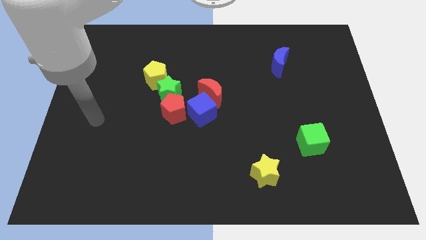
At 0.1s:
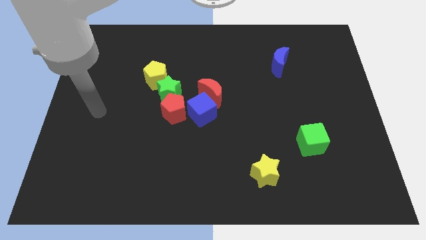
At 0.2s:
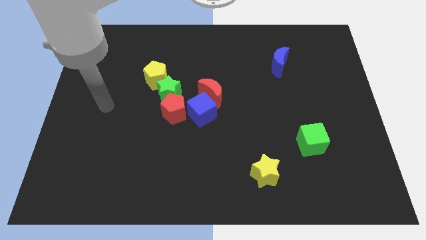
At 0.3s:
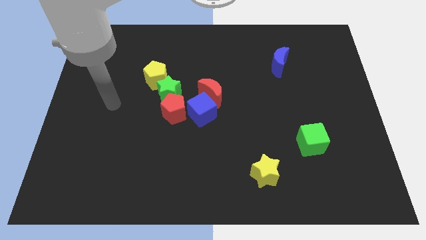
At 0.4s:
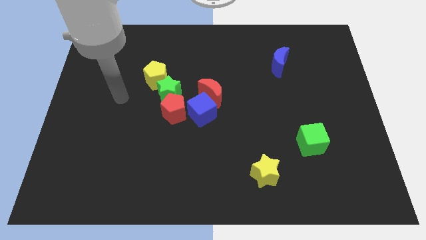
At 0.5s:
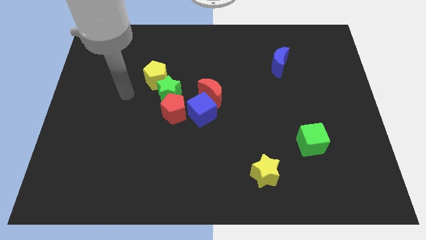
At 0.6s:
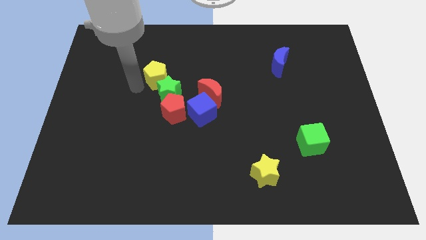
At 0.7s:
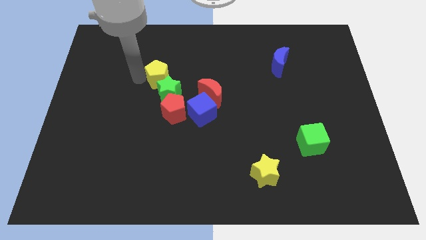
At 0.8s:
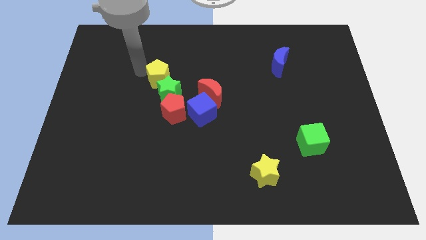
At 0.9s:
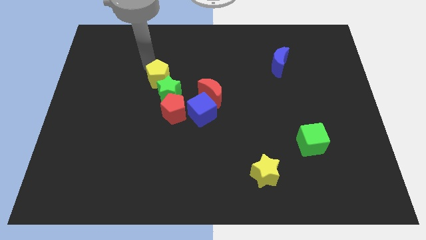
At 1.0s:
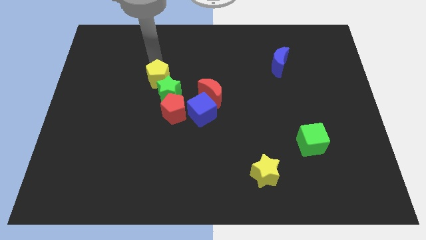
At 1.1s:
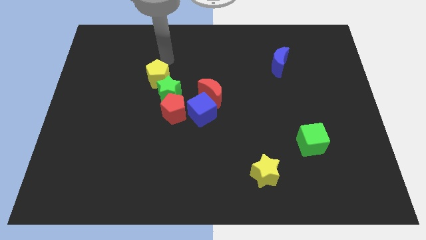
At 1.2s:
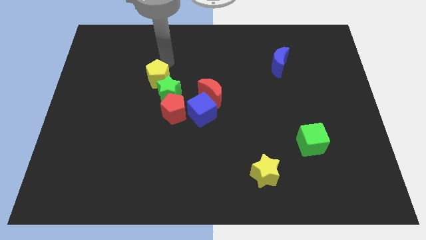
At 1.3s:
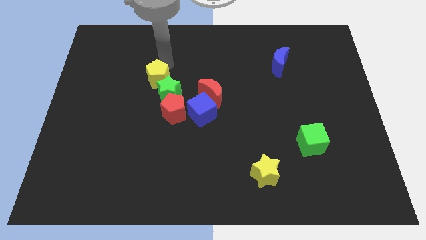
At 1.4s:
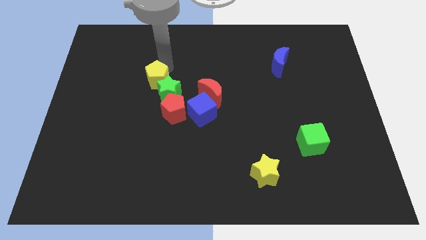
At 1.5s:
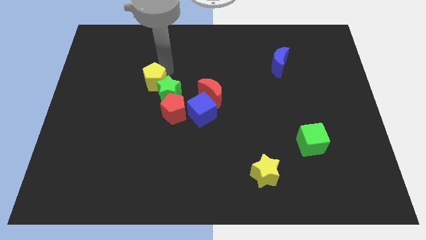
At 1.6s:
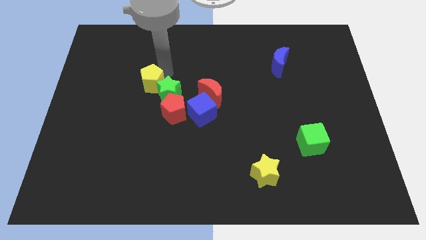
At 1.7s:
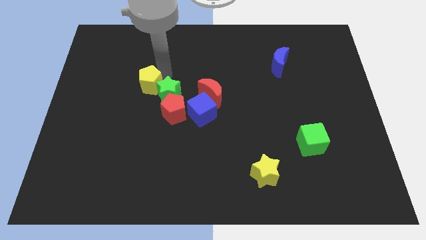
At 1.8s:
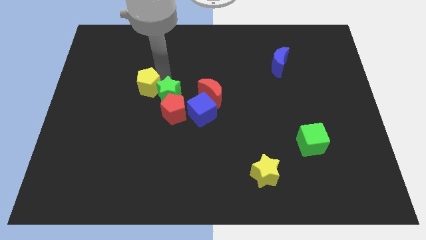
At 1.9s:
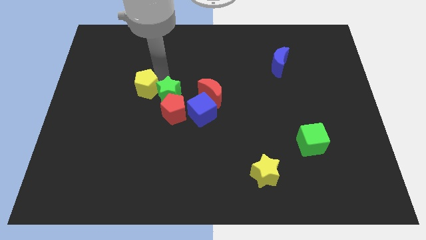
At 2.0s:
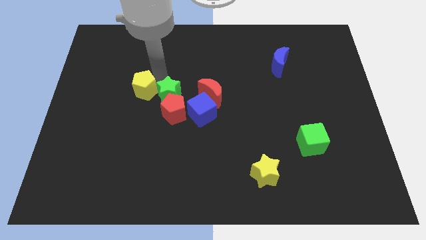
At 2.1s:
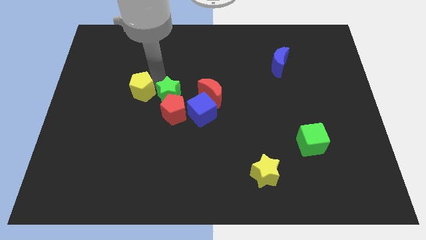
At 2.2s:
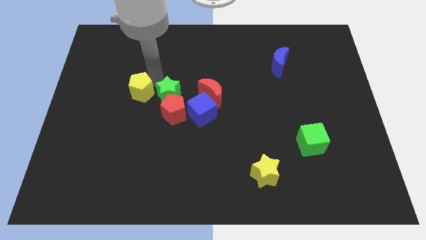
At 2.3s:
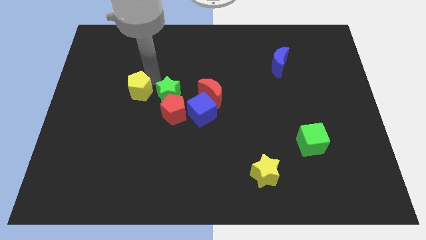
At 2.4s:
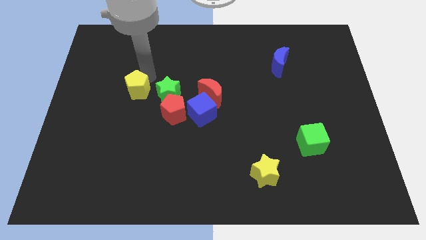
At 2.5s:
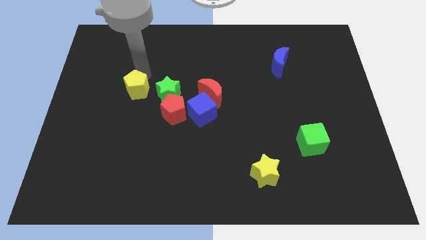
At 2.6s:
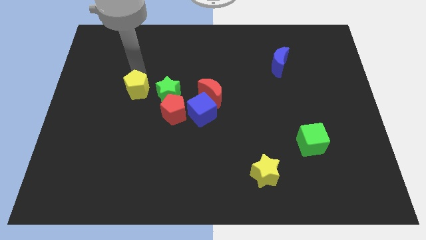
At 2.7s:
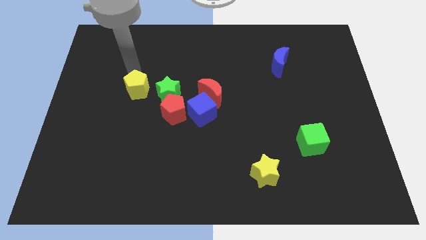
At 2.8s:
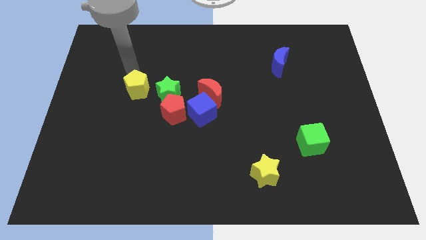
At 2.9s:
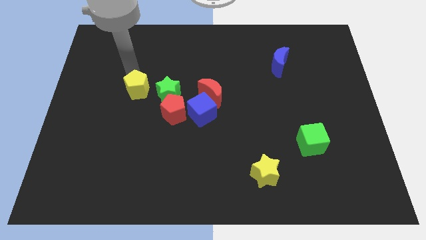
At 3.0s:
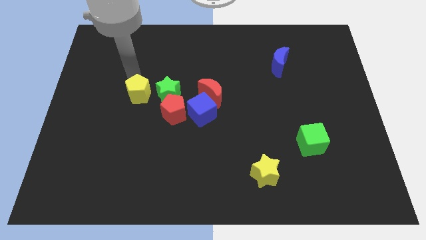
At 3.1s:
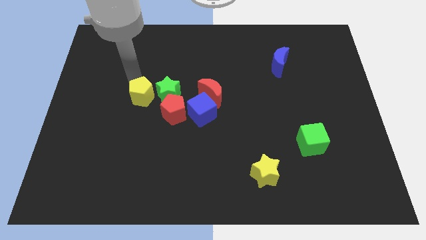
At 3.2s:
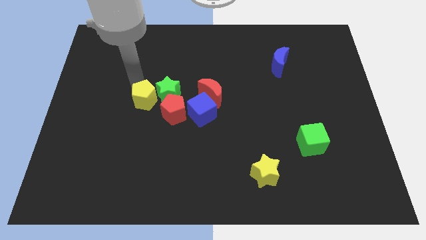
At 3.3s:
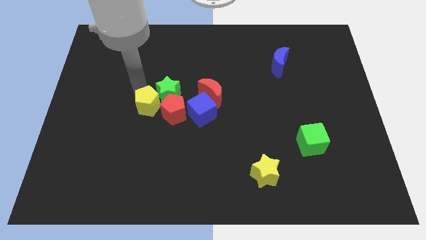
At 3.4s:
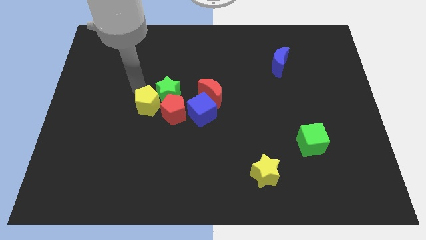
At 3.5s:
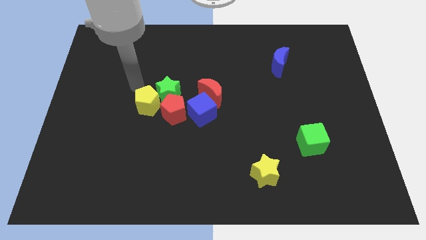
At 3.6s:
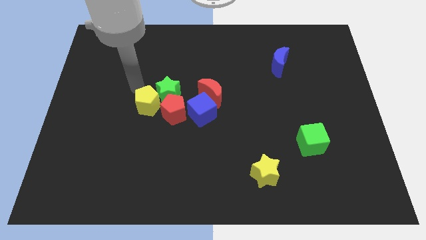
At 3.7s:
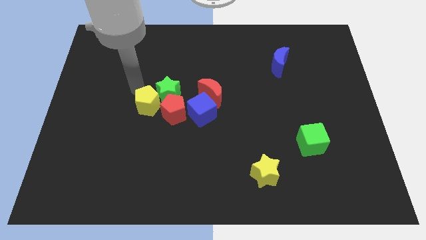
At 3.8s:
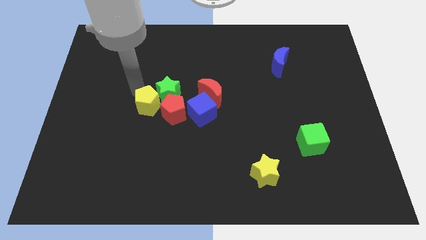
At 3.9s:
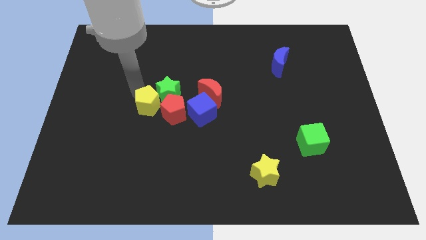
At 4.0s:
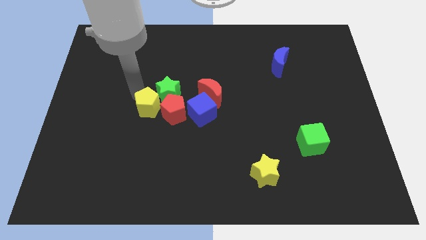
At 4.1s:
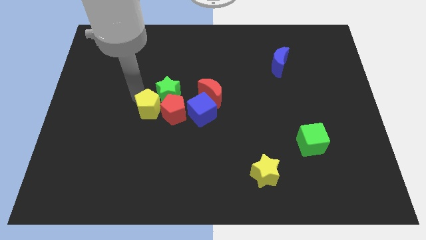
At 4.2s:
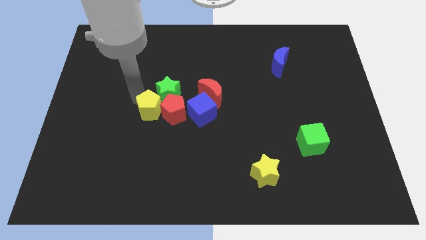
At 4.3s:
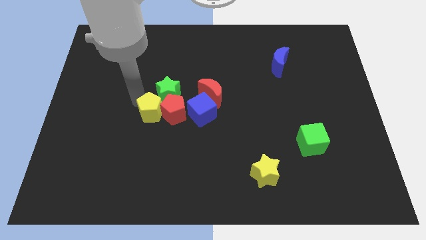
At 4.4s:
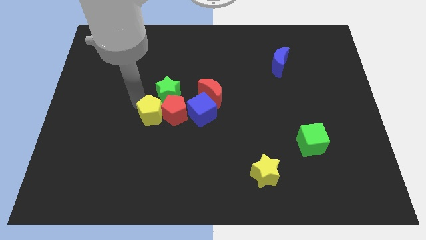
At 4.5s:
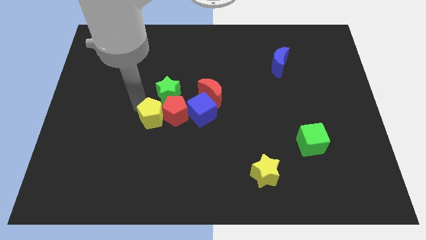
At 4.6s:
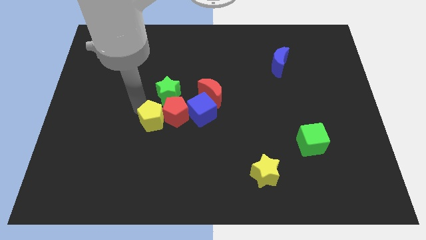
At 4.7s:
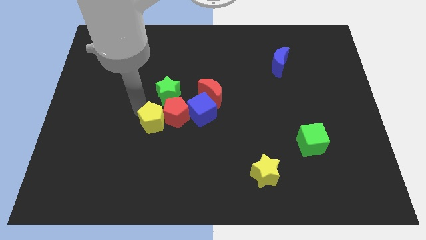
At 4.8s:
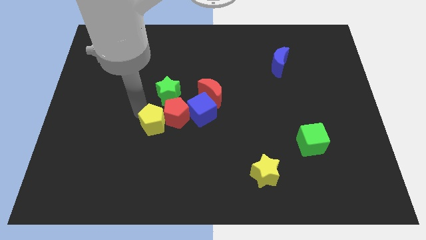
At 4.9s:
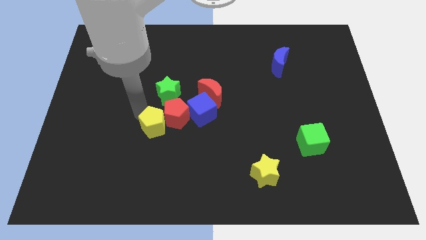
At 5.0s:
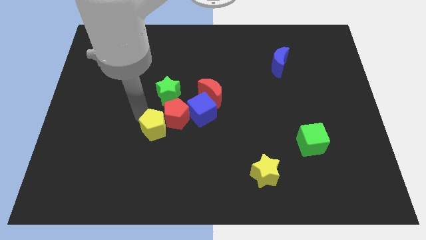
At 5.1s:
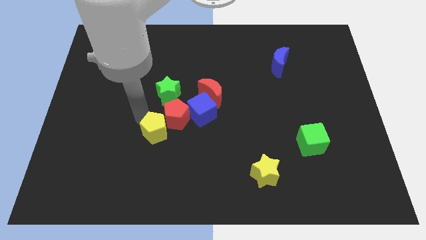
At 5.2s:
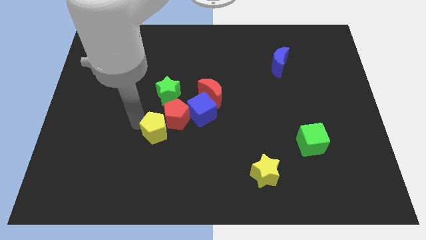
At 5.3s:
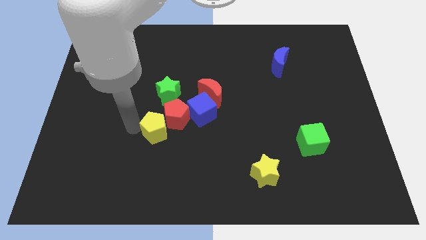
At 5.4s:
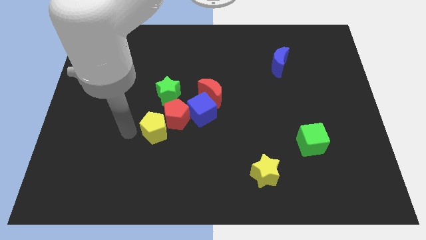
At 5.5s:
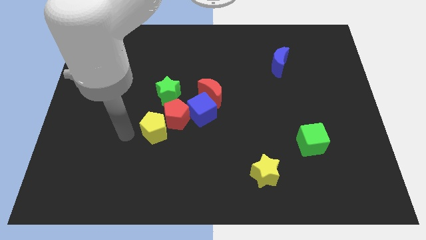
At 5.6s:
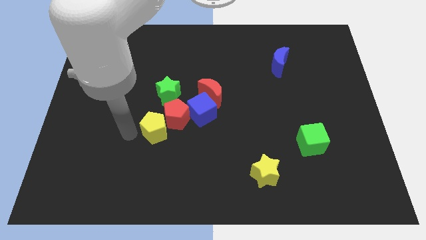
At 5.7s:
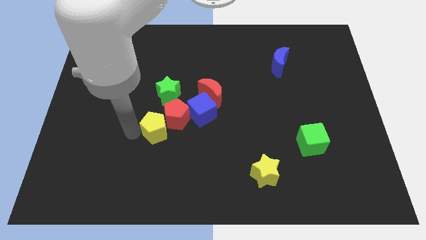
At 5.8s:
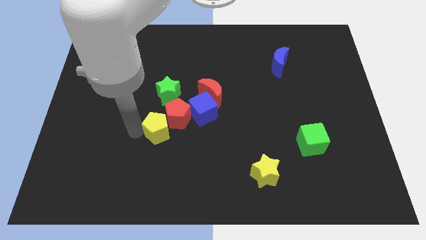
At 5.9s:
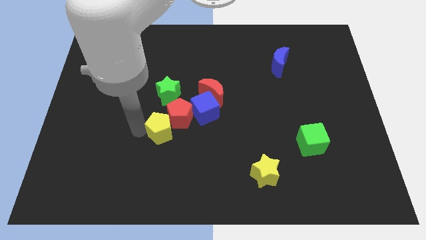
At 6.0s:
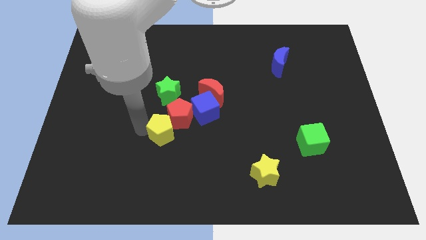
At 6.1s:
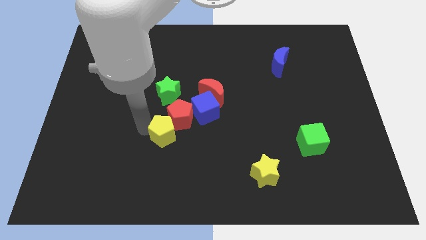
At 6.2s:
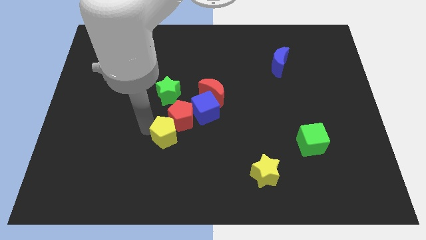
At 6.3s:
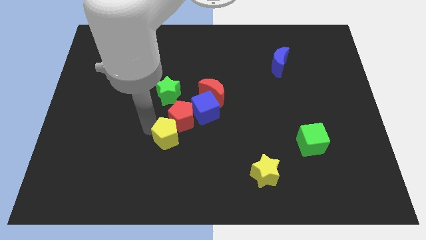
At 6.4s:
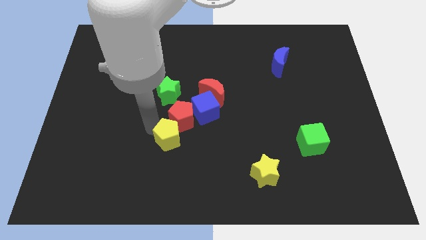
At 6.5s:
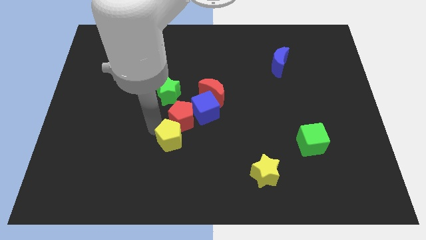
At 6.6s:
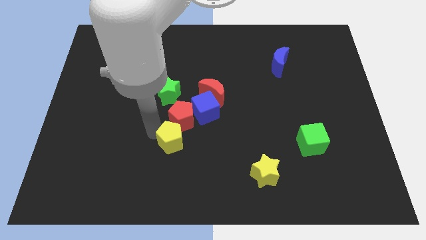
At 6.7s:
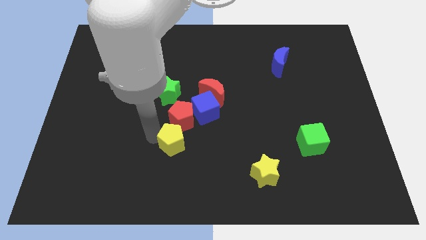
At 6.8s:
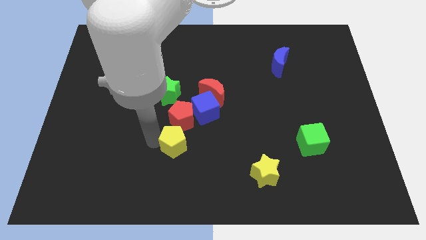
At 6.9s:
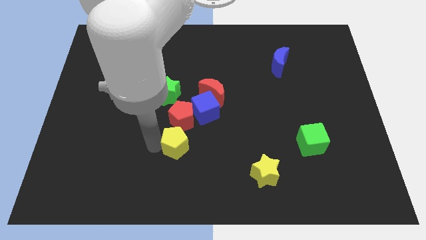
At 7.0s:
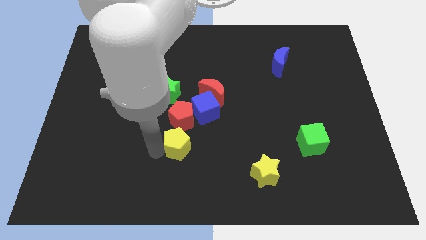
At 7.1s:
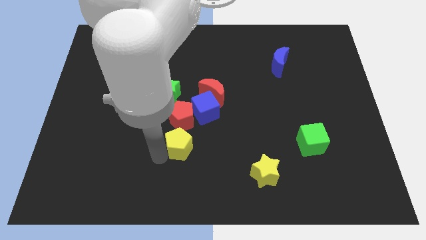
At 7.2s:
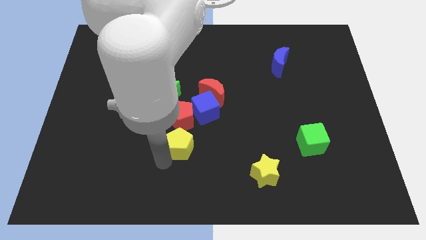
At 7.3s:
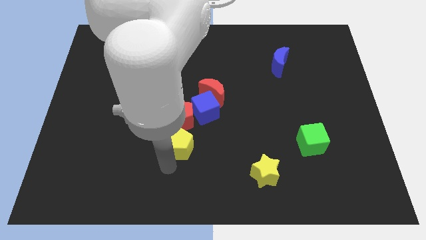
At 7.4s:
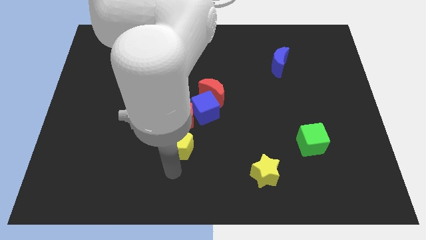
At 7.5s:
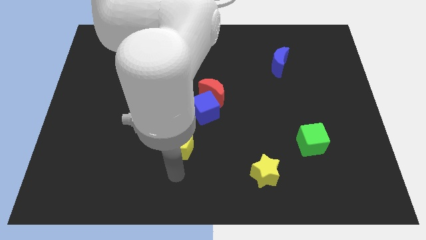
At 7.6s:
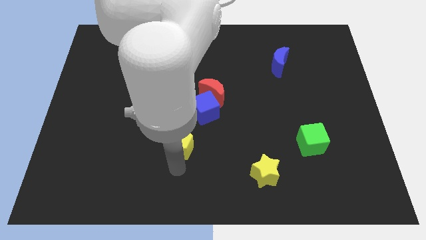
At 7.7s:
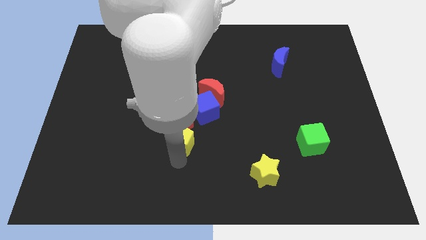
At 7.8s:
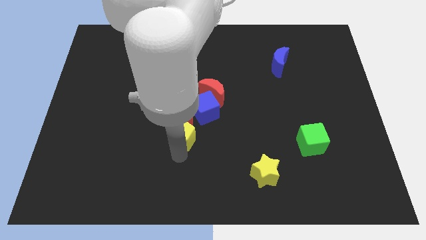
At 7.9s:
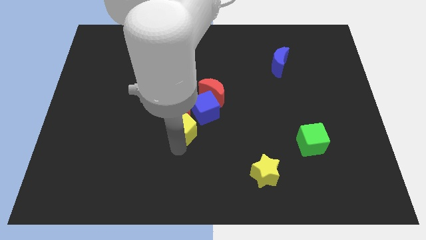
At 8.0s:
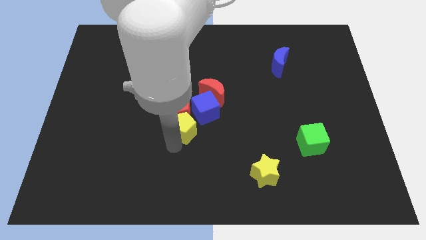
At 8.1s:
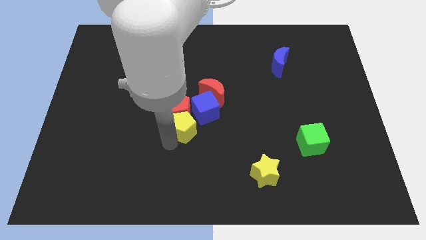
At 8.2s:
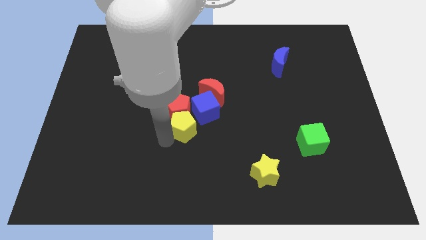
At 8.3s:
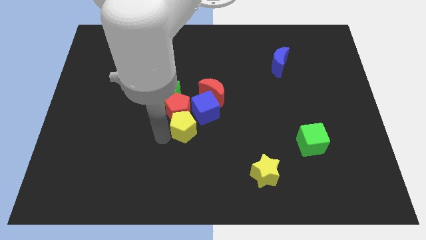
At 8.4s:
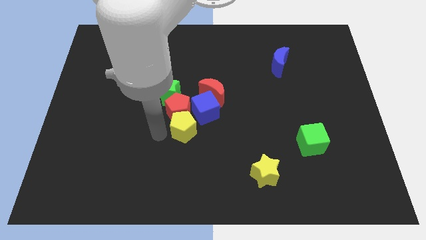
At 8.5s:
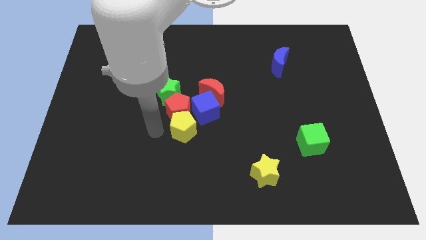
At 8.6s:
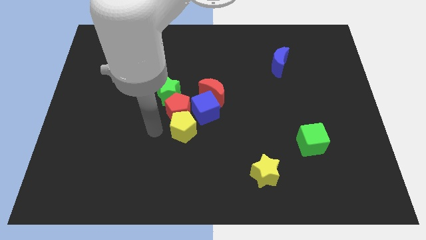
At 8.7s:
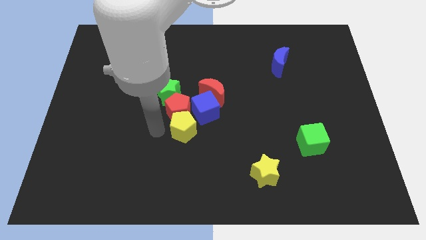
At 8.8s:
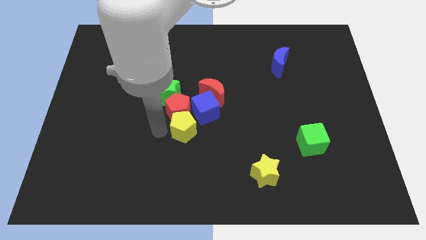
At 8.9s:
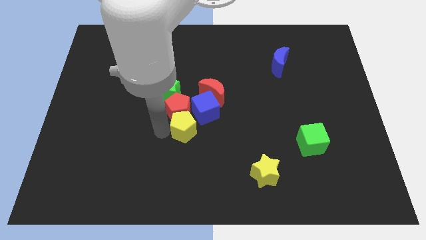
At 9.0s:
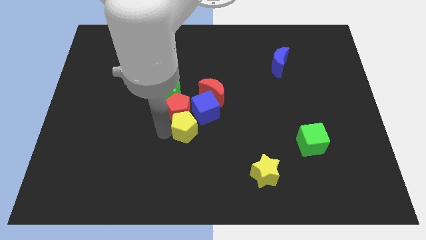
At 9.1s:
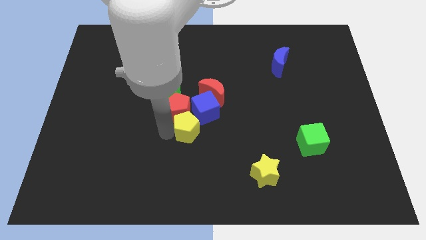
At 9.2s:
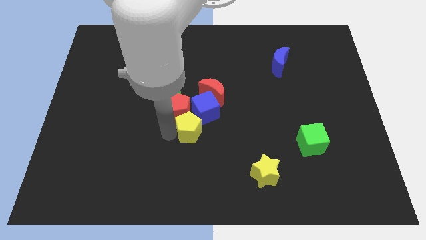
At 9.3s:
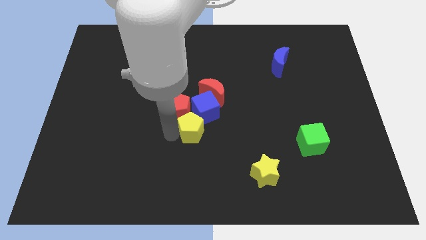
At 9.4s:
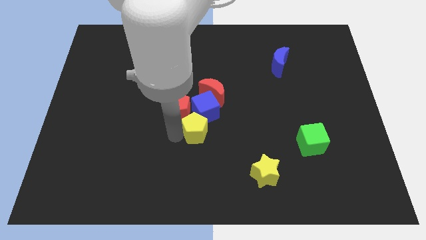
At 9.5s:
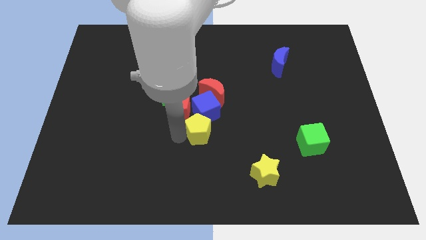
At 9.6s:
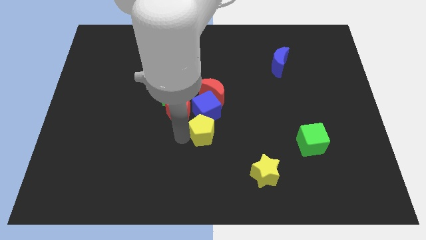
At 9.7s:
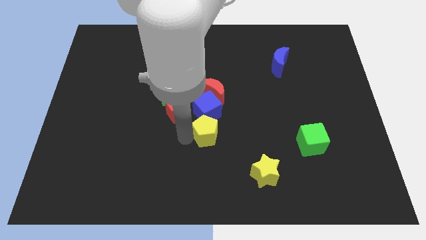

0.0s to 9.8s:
slide the yellow pentagon diagonally down and to the right of the blue cube
